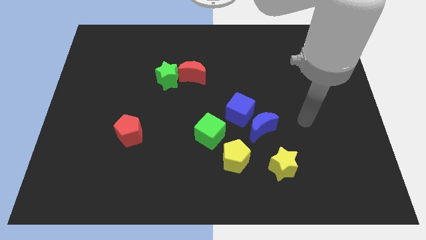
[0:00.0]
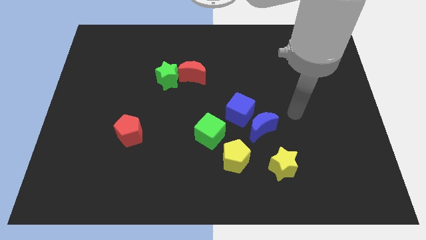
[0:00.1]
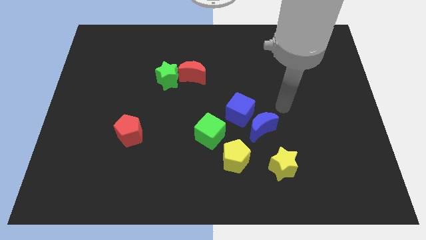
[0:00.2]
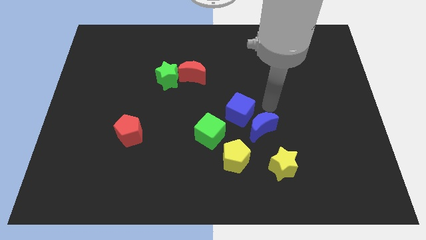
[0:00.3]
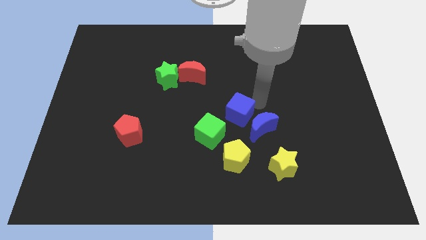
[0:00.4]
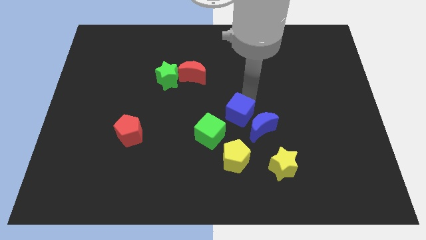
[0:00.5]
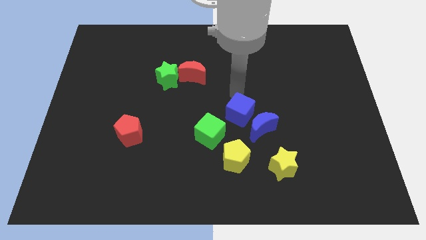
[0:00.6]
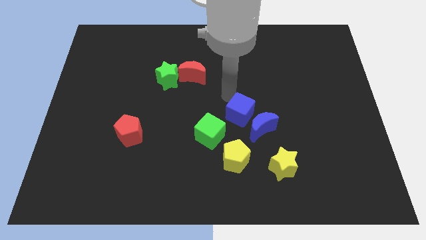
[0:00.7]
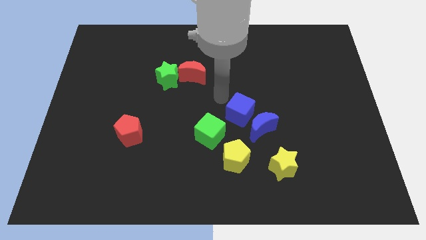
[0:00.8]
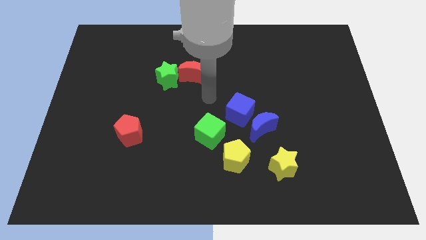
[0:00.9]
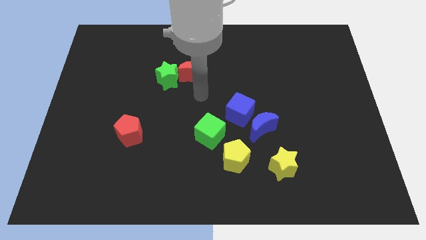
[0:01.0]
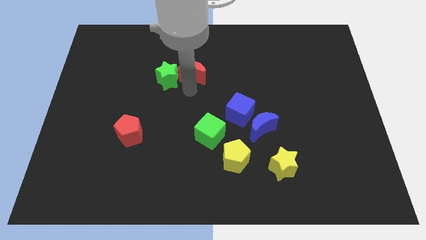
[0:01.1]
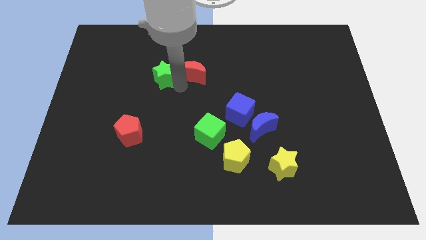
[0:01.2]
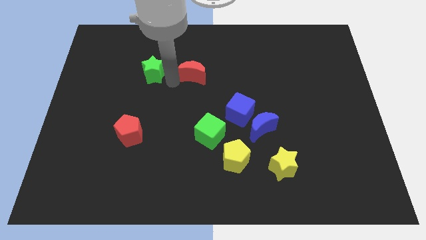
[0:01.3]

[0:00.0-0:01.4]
separate the red moon from the green star

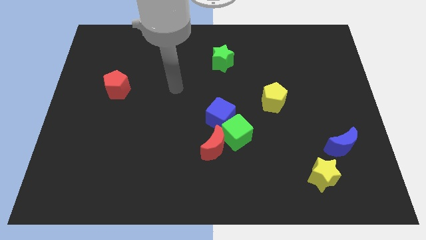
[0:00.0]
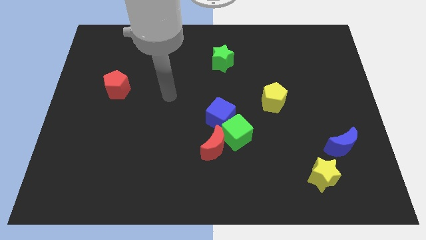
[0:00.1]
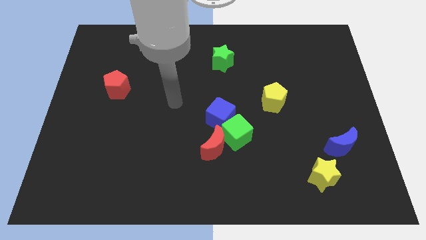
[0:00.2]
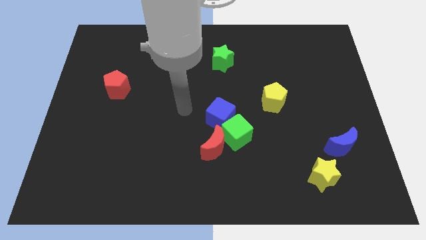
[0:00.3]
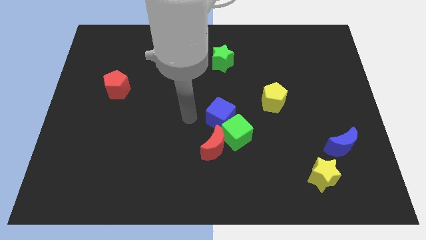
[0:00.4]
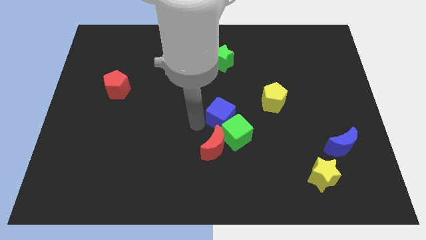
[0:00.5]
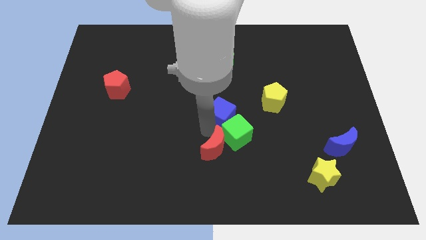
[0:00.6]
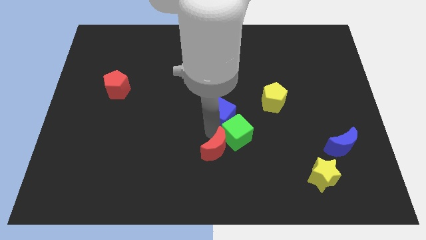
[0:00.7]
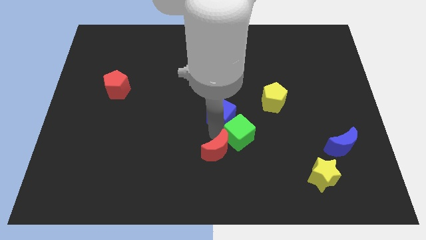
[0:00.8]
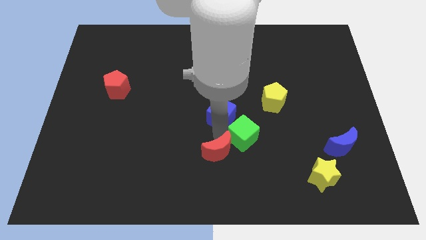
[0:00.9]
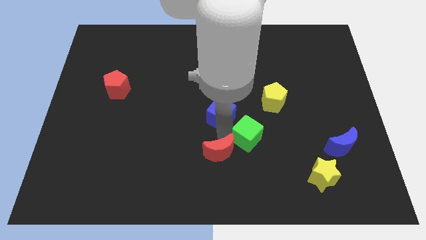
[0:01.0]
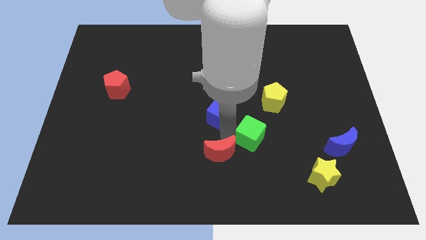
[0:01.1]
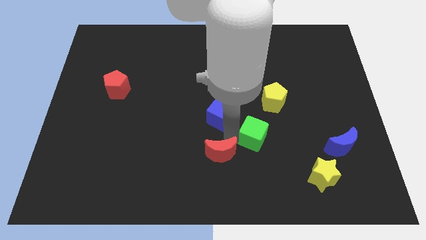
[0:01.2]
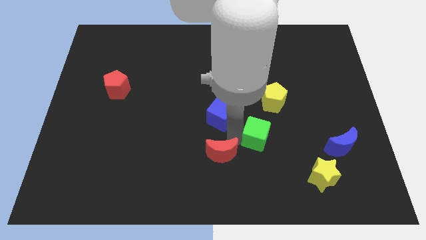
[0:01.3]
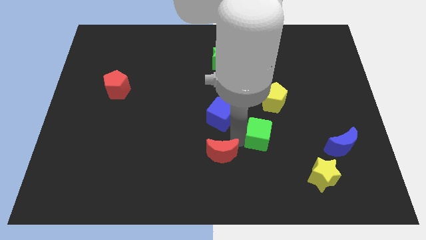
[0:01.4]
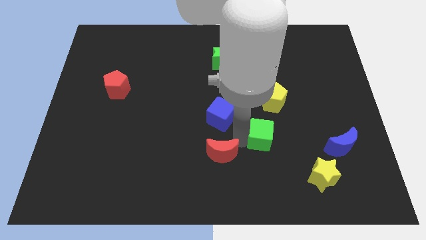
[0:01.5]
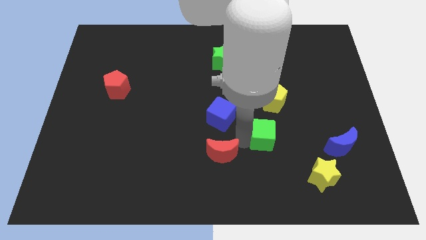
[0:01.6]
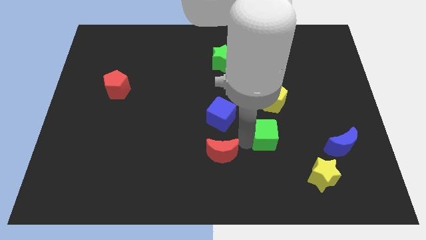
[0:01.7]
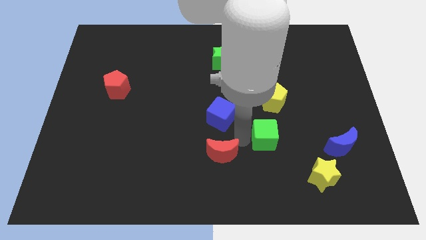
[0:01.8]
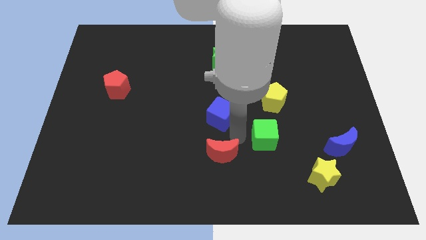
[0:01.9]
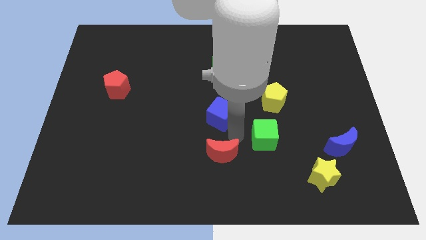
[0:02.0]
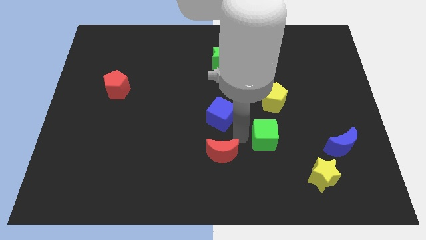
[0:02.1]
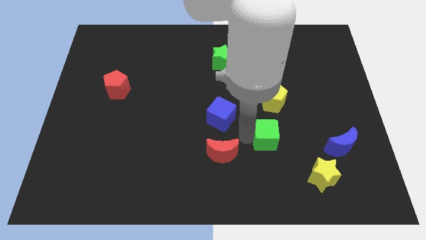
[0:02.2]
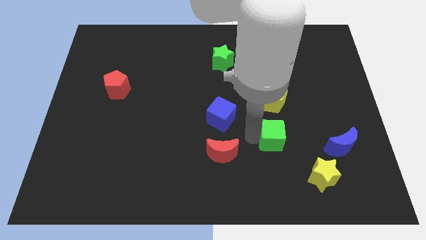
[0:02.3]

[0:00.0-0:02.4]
pull the green cube apart from the red moon and blue cube

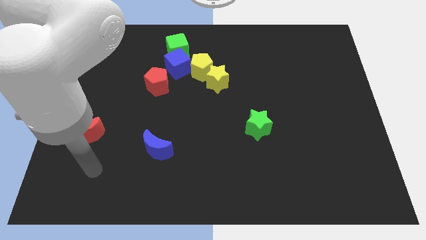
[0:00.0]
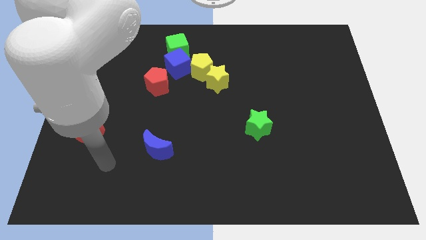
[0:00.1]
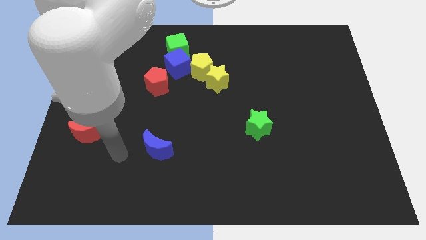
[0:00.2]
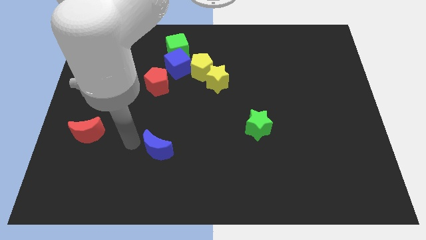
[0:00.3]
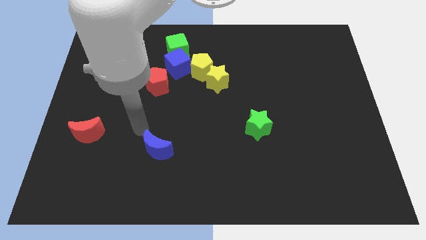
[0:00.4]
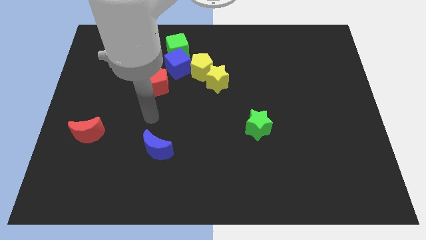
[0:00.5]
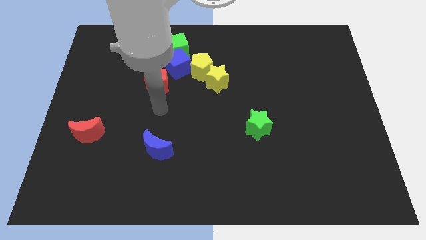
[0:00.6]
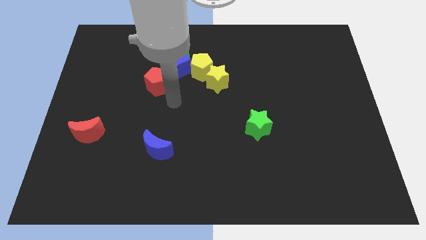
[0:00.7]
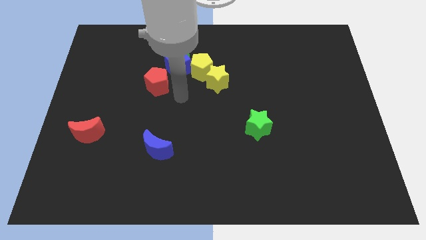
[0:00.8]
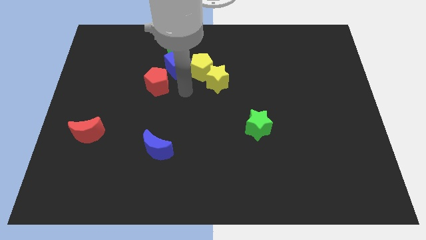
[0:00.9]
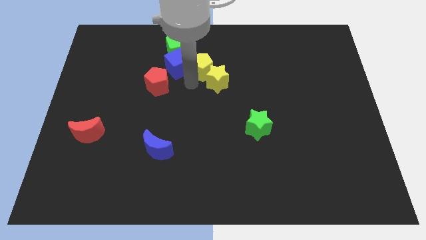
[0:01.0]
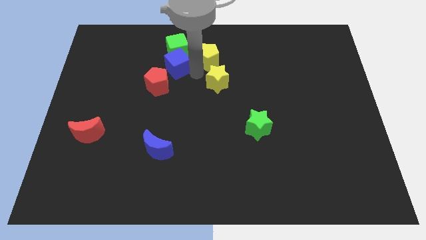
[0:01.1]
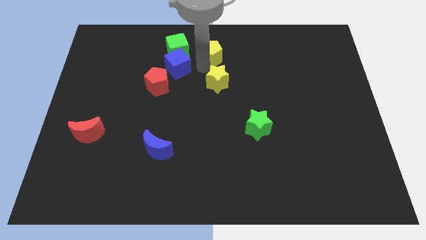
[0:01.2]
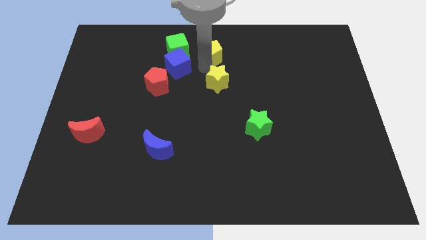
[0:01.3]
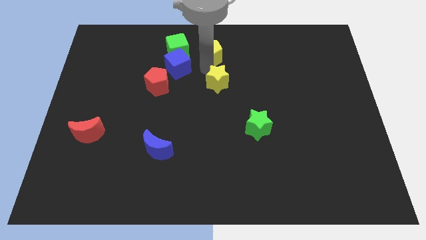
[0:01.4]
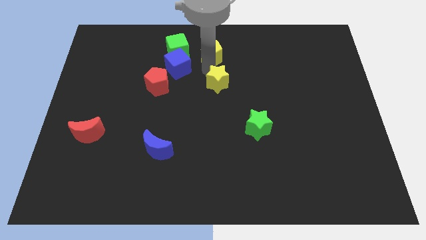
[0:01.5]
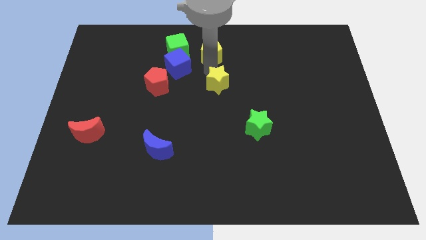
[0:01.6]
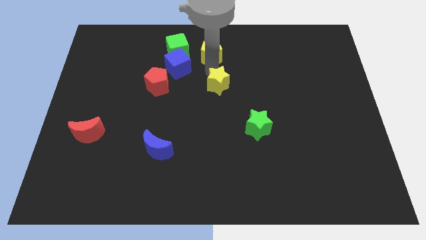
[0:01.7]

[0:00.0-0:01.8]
move the yellow star away from the yellow pentagon

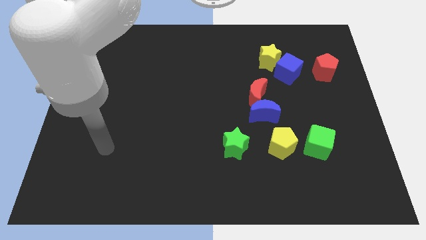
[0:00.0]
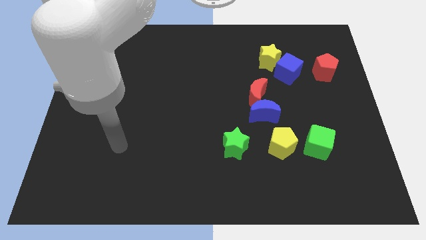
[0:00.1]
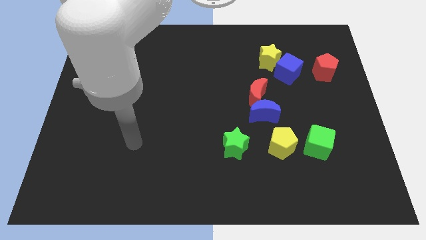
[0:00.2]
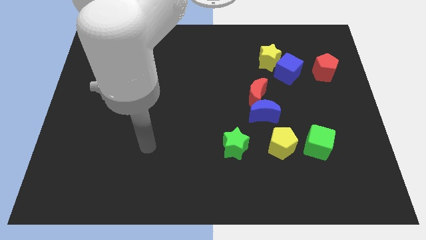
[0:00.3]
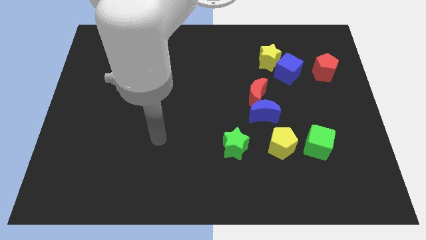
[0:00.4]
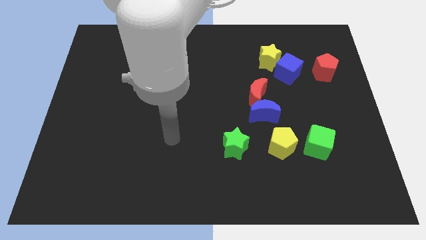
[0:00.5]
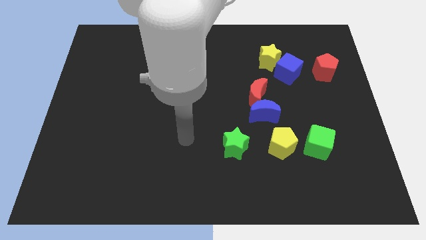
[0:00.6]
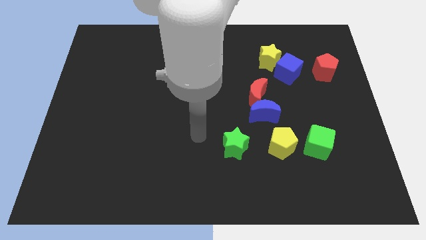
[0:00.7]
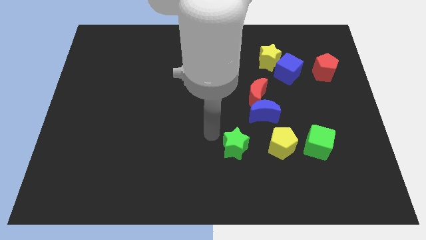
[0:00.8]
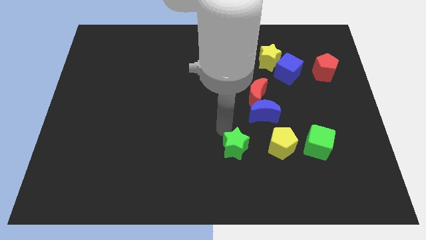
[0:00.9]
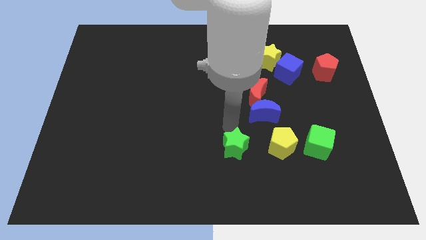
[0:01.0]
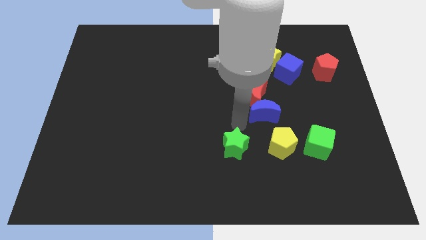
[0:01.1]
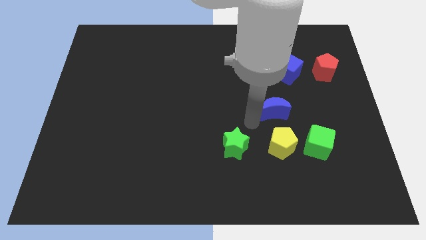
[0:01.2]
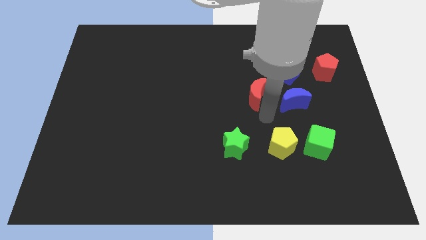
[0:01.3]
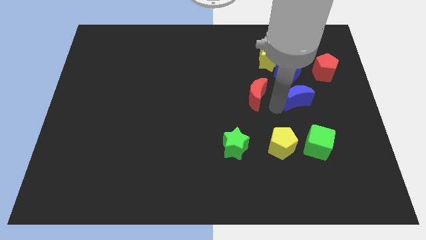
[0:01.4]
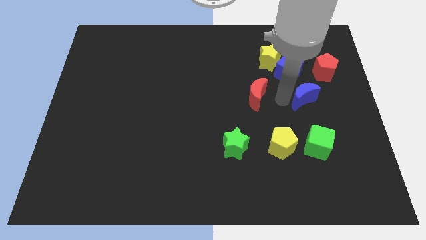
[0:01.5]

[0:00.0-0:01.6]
pull the red moon apart from the blue moon

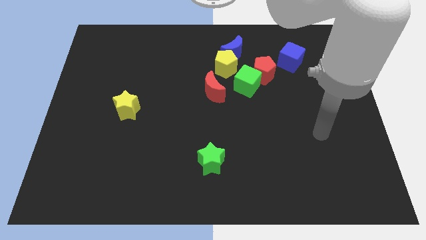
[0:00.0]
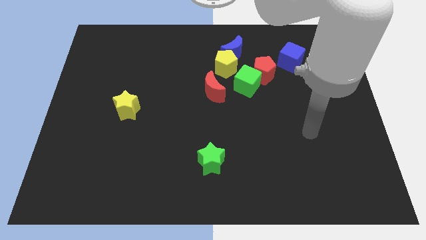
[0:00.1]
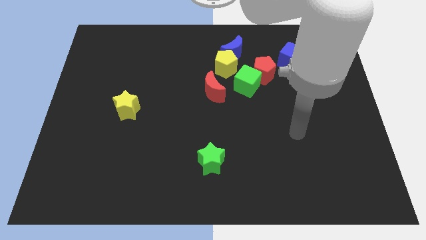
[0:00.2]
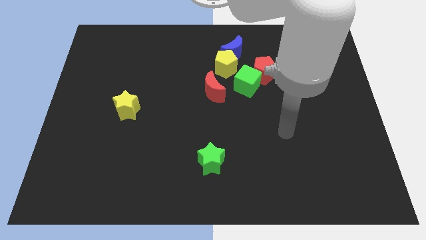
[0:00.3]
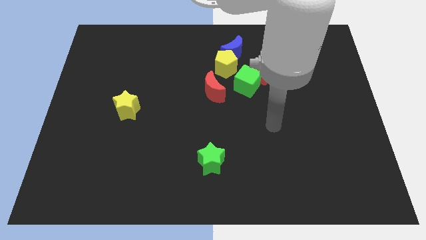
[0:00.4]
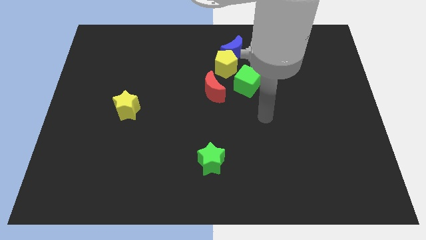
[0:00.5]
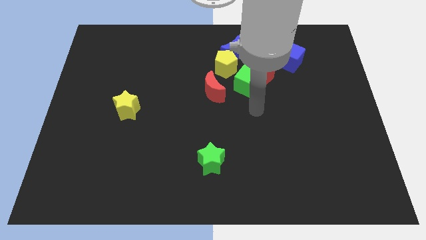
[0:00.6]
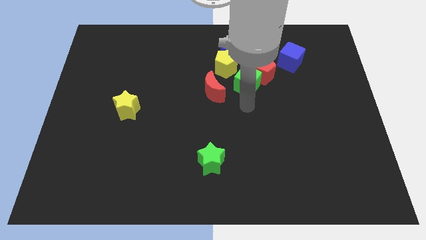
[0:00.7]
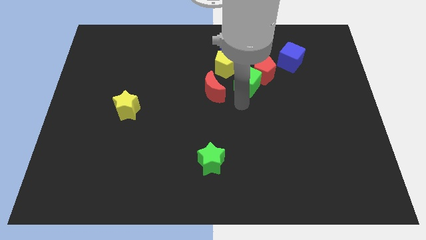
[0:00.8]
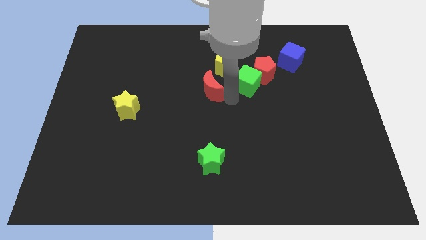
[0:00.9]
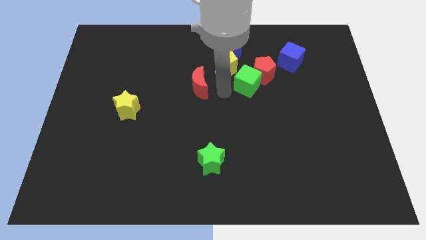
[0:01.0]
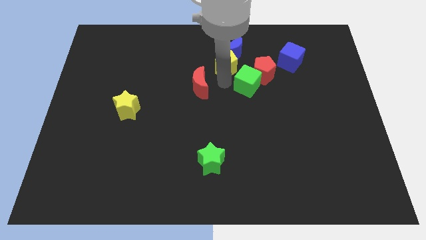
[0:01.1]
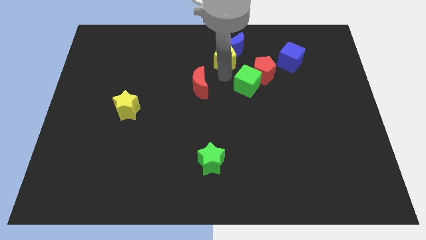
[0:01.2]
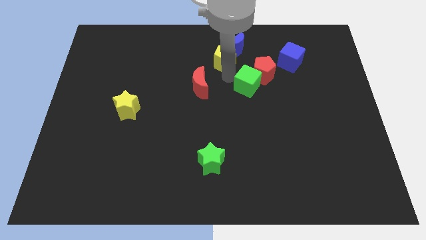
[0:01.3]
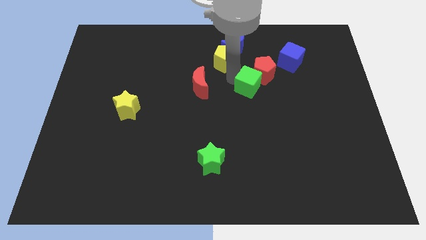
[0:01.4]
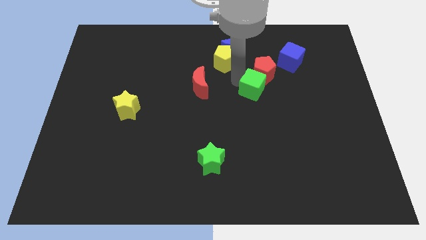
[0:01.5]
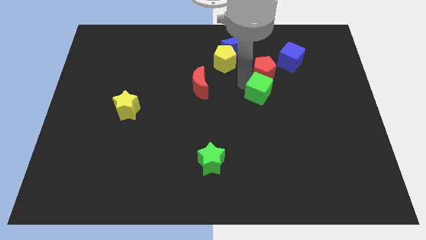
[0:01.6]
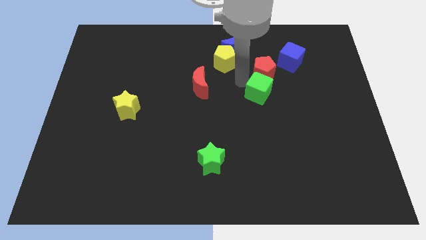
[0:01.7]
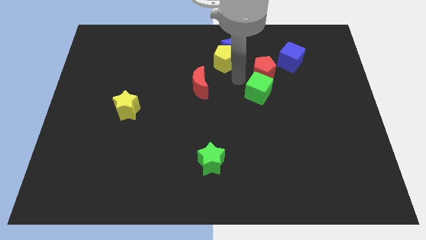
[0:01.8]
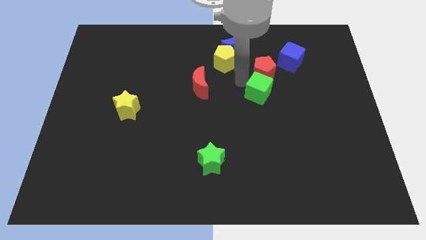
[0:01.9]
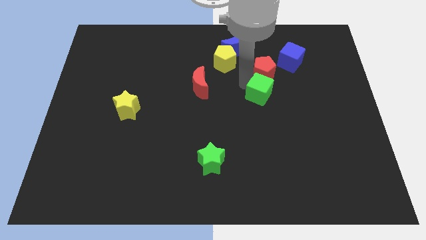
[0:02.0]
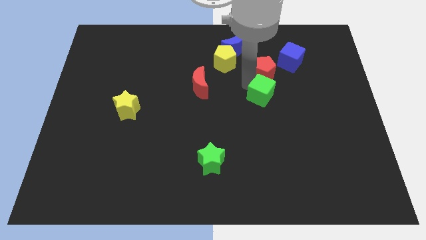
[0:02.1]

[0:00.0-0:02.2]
separate the green cube from the group of blocks

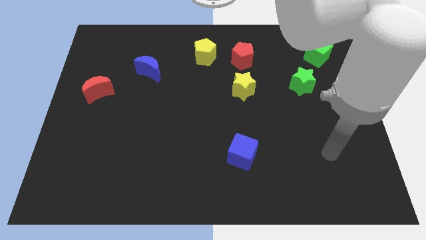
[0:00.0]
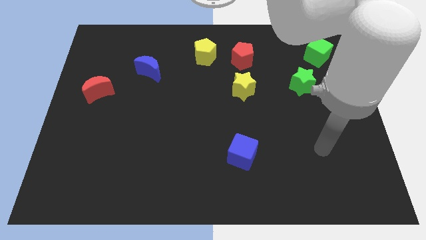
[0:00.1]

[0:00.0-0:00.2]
separate the red pentagon from the yellow pentagon
